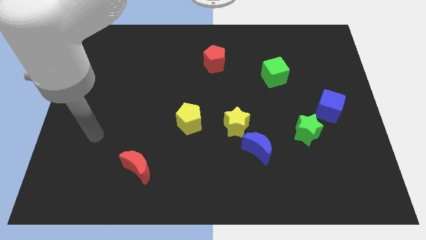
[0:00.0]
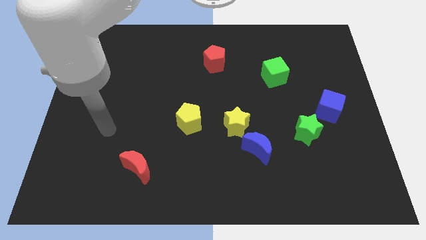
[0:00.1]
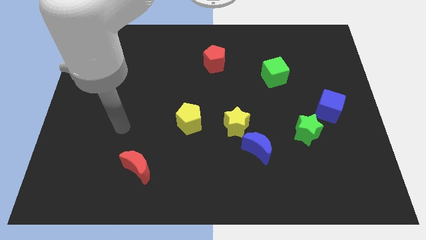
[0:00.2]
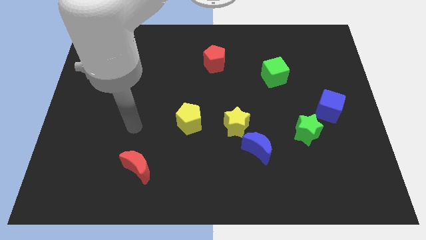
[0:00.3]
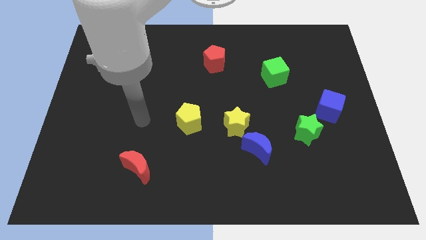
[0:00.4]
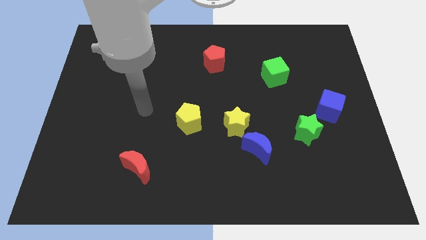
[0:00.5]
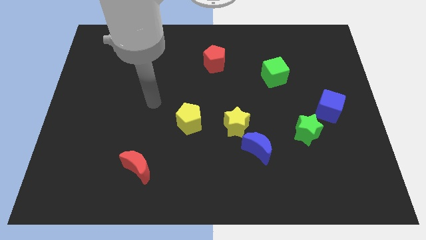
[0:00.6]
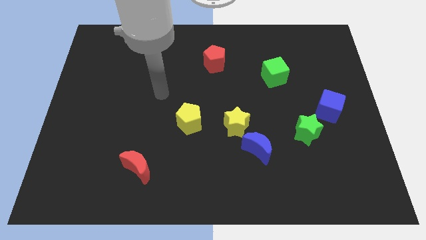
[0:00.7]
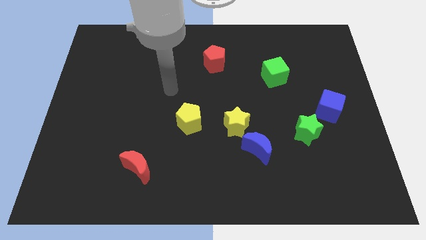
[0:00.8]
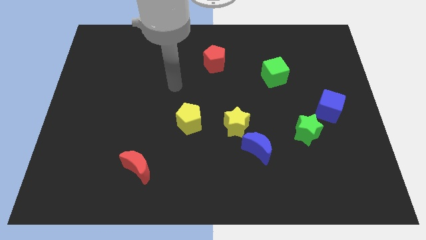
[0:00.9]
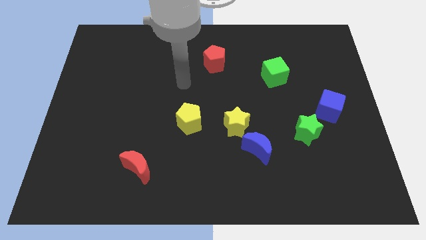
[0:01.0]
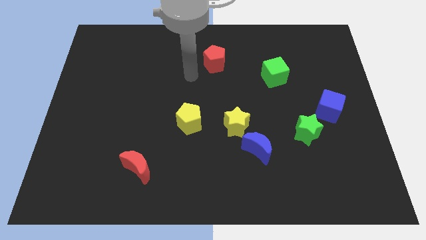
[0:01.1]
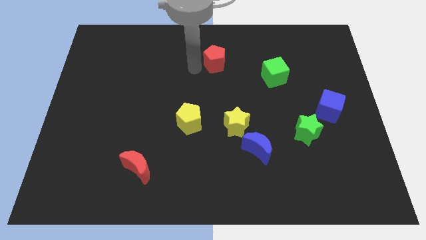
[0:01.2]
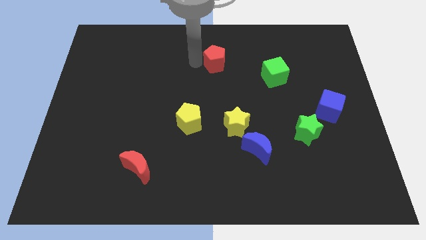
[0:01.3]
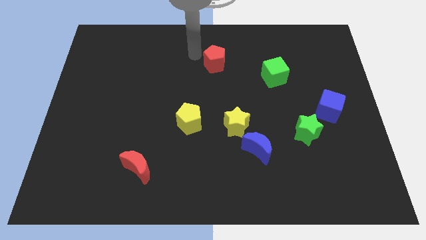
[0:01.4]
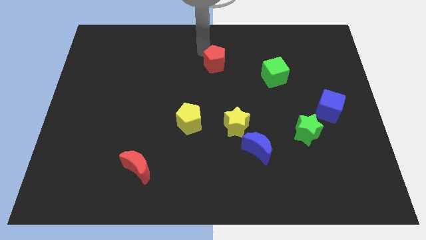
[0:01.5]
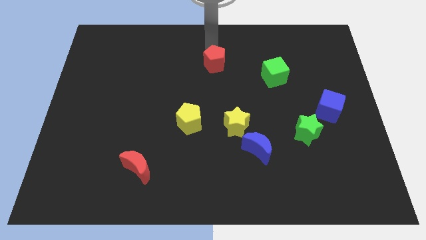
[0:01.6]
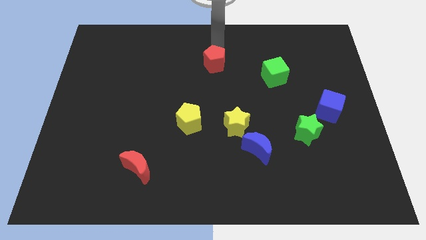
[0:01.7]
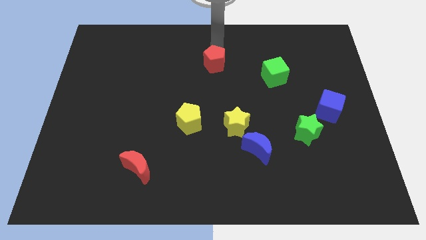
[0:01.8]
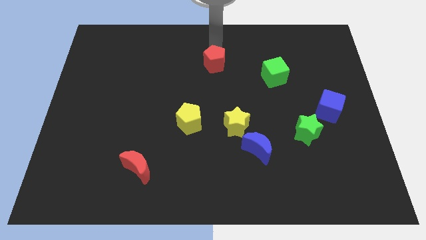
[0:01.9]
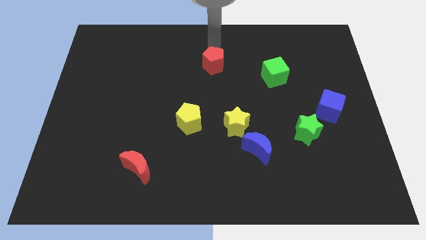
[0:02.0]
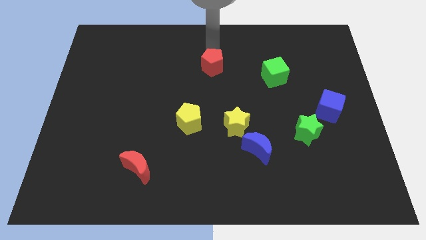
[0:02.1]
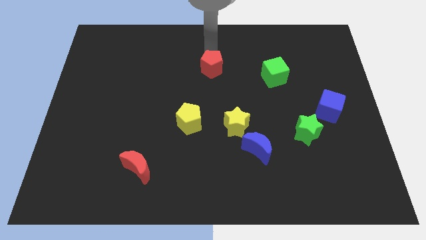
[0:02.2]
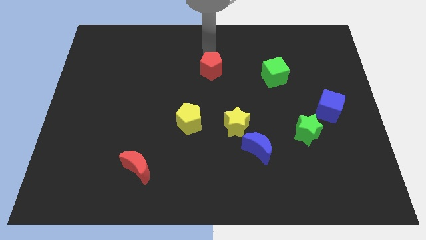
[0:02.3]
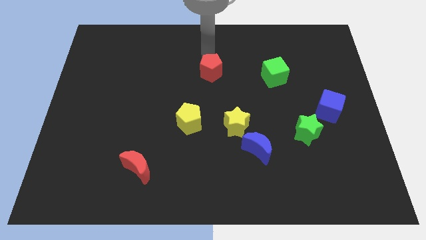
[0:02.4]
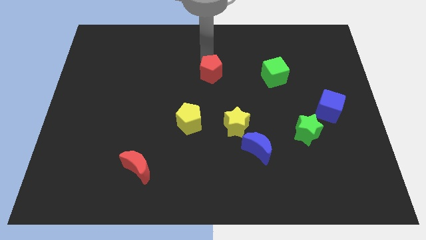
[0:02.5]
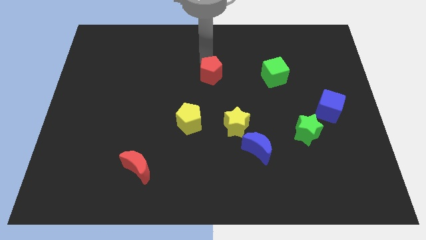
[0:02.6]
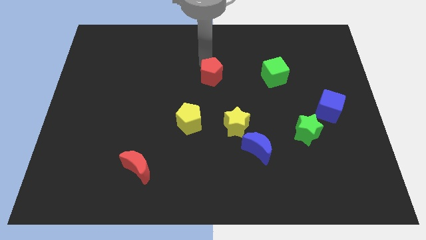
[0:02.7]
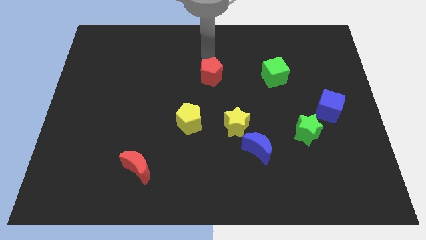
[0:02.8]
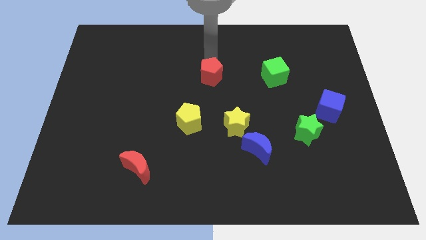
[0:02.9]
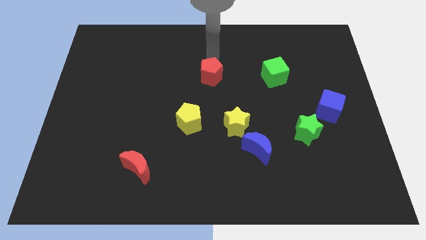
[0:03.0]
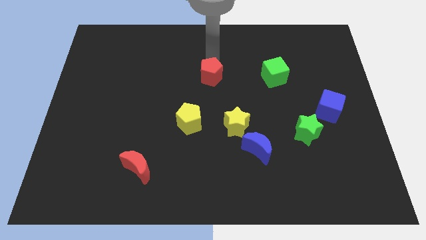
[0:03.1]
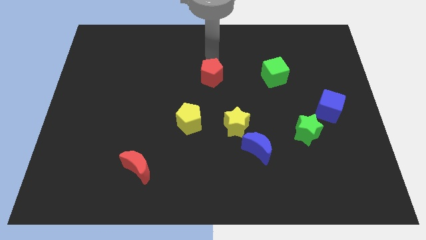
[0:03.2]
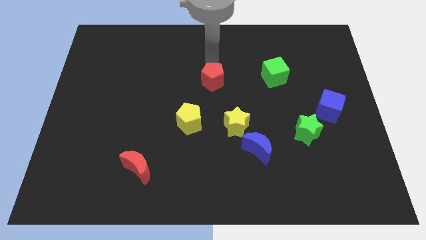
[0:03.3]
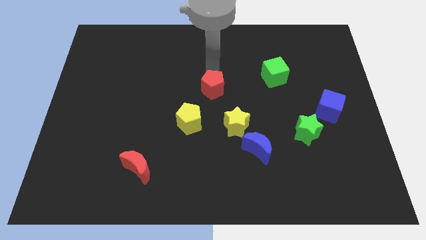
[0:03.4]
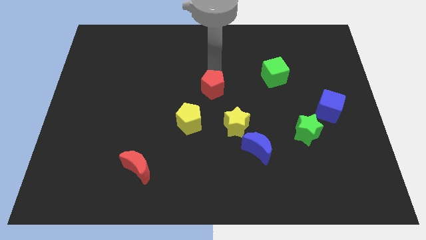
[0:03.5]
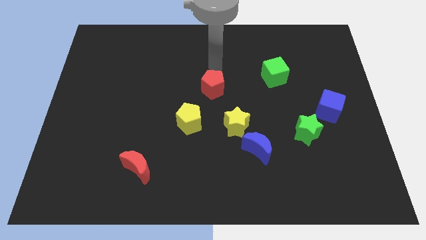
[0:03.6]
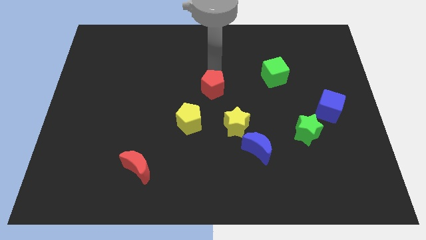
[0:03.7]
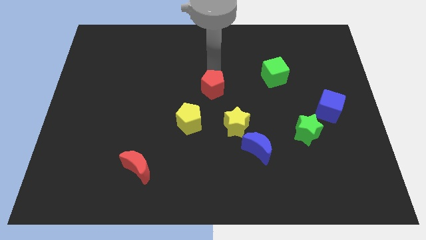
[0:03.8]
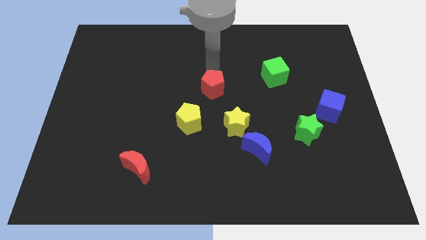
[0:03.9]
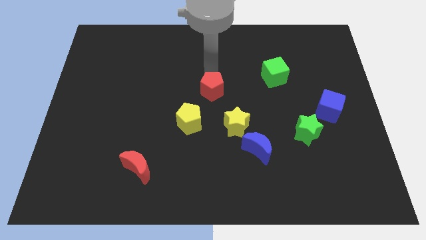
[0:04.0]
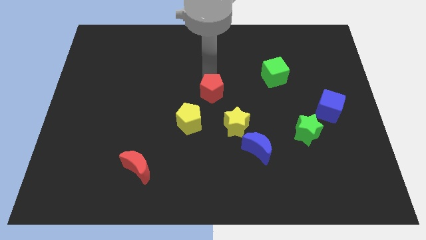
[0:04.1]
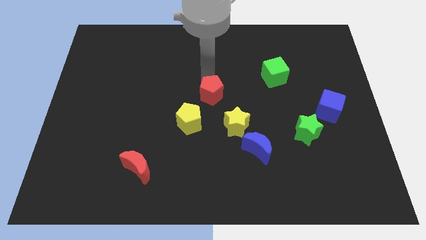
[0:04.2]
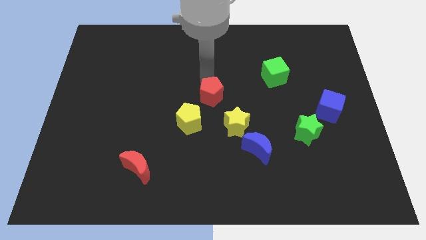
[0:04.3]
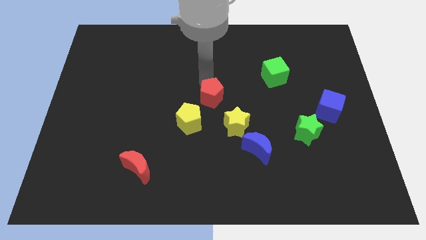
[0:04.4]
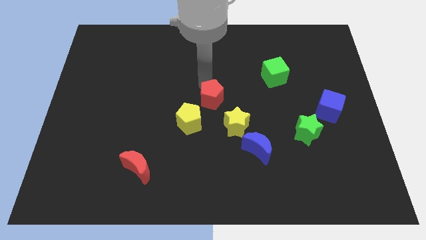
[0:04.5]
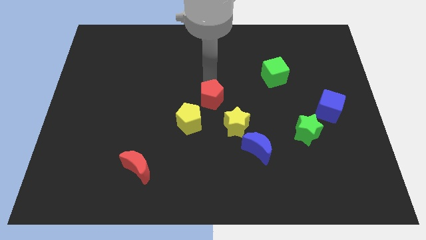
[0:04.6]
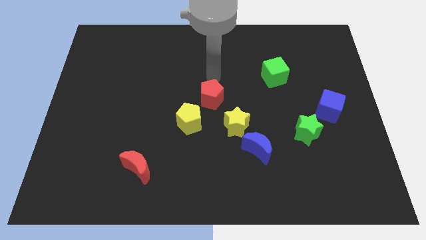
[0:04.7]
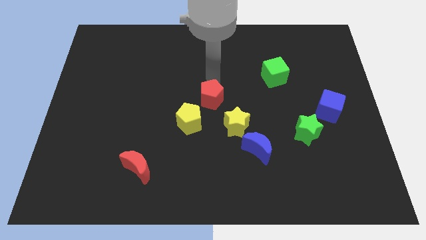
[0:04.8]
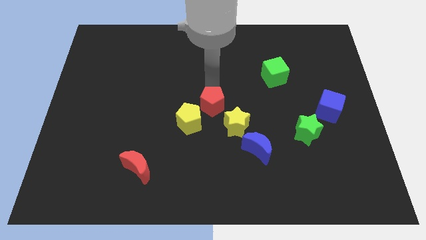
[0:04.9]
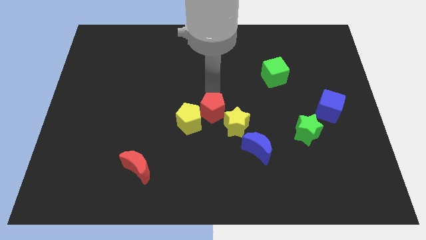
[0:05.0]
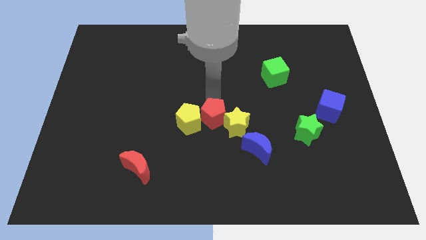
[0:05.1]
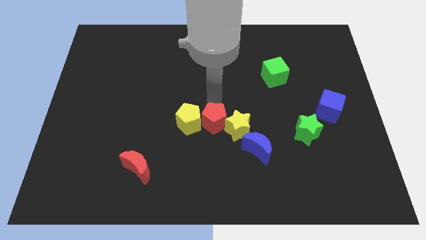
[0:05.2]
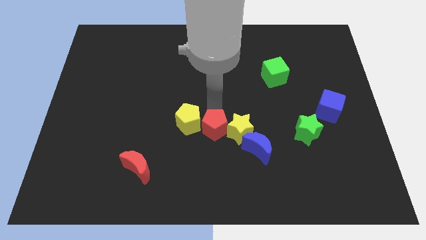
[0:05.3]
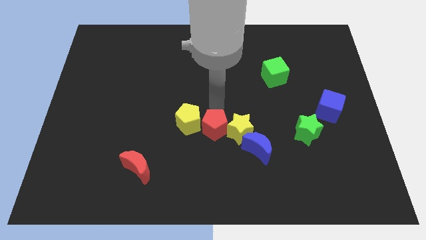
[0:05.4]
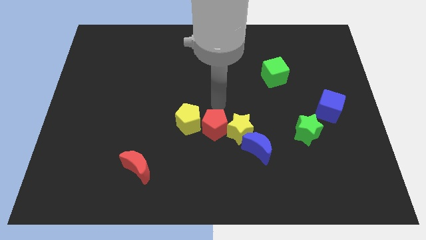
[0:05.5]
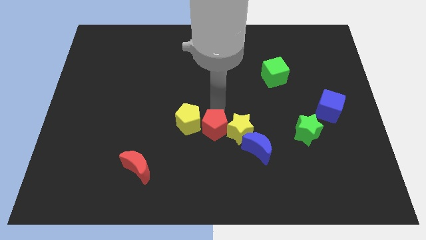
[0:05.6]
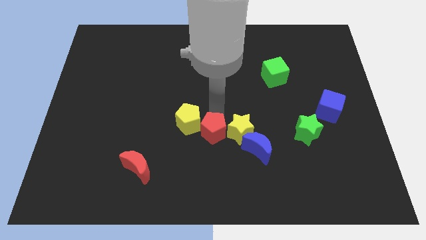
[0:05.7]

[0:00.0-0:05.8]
put the red pentagon to the left of the blue moon

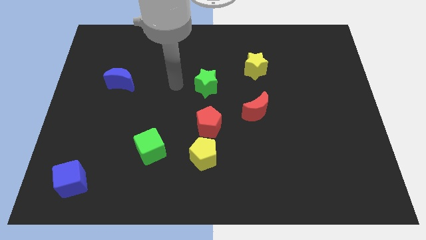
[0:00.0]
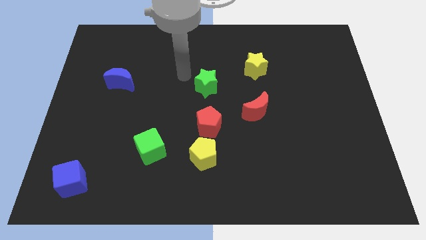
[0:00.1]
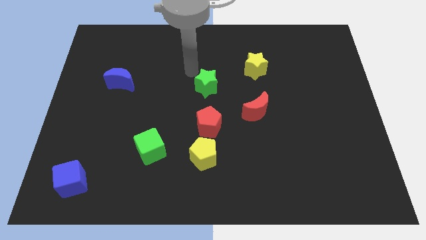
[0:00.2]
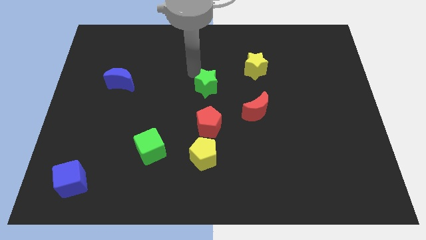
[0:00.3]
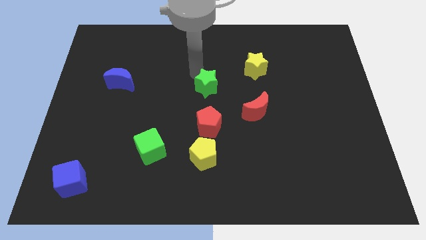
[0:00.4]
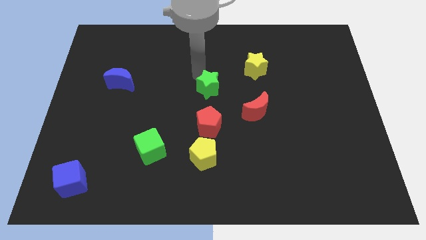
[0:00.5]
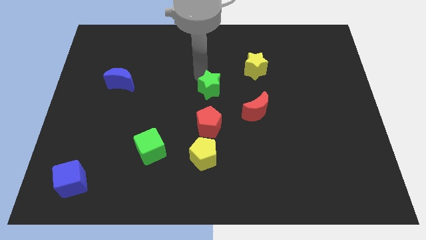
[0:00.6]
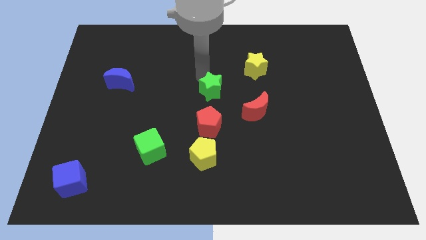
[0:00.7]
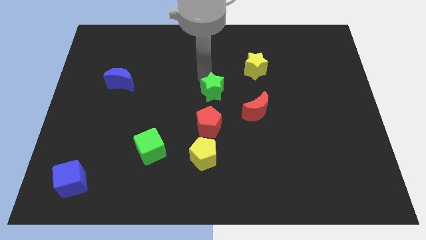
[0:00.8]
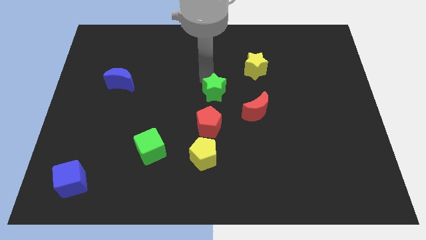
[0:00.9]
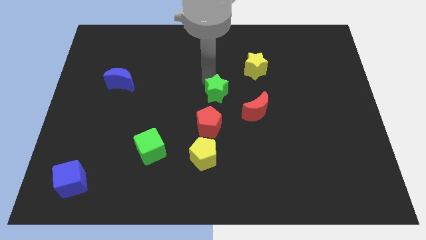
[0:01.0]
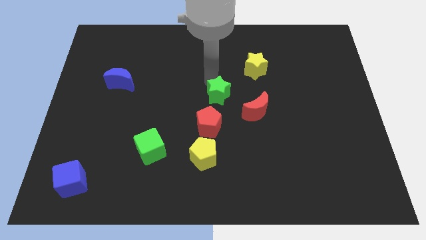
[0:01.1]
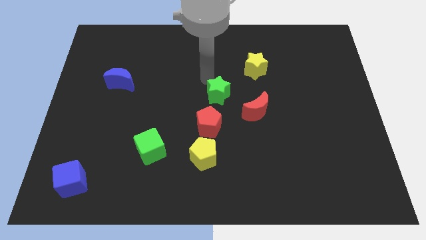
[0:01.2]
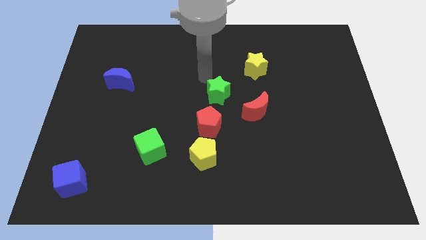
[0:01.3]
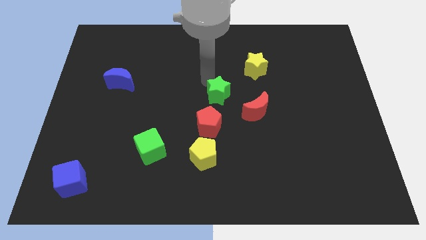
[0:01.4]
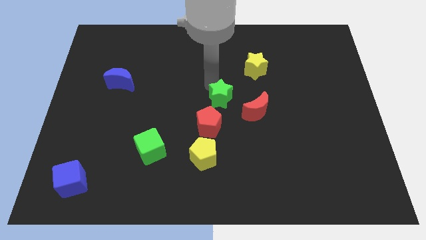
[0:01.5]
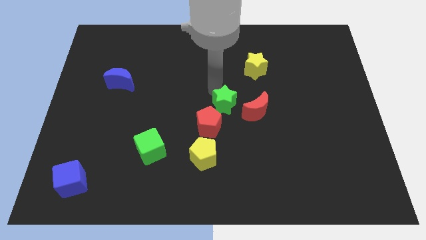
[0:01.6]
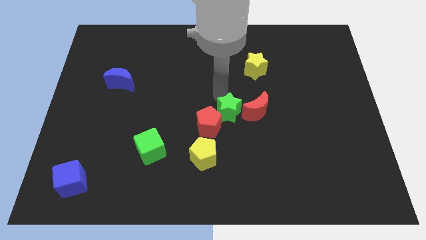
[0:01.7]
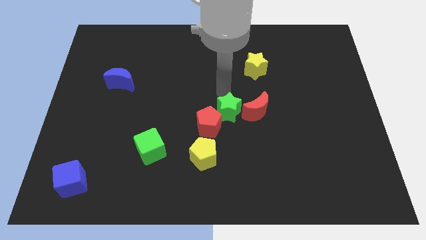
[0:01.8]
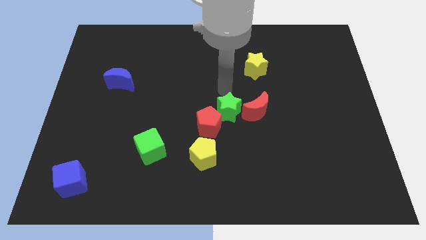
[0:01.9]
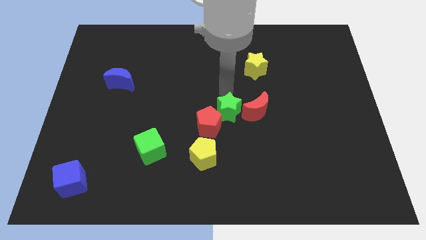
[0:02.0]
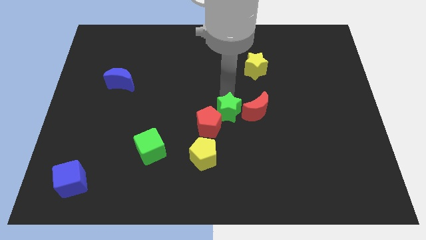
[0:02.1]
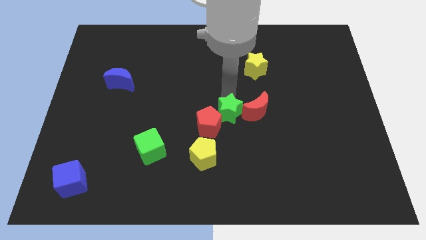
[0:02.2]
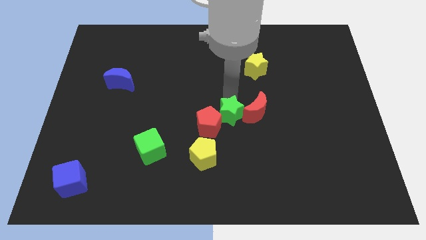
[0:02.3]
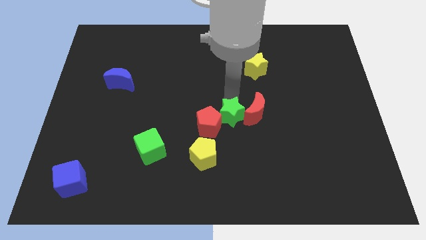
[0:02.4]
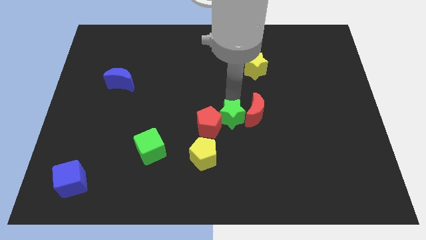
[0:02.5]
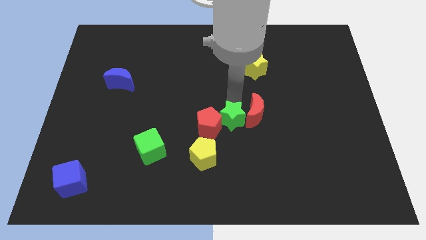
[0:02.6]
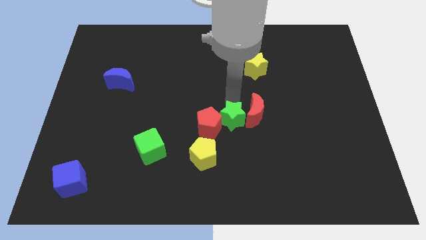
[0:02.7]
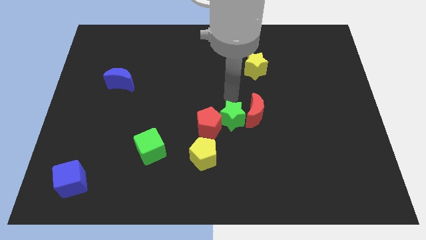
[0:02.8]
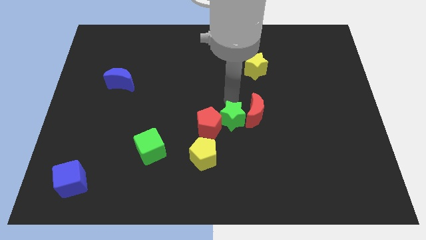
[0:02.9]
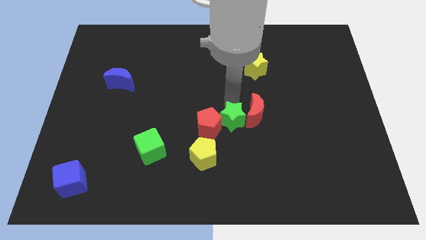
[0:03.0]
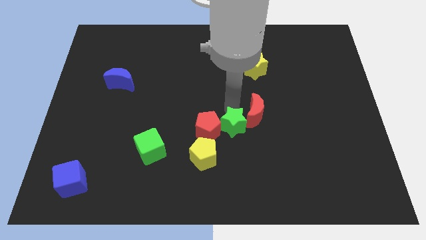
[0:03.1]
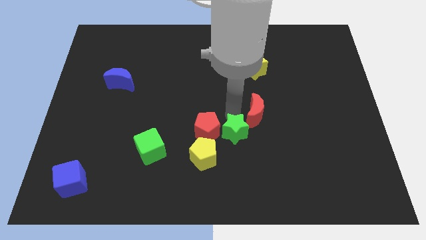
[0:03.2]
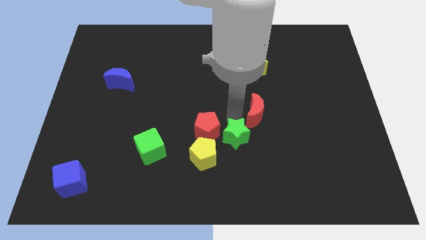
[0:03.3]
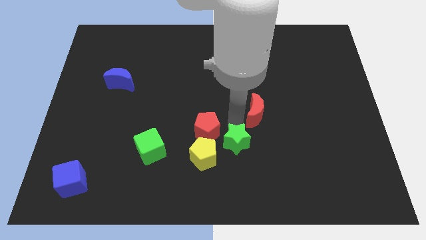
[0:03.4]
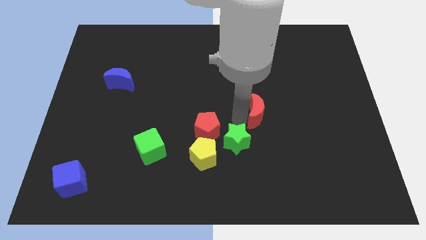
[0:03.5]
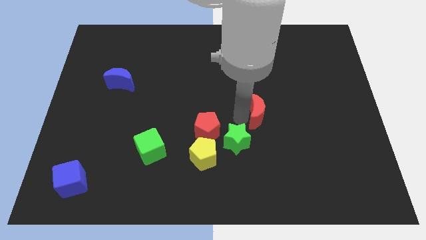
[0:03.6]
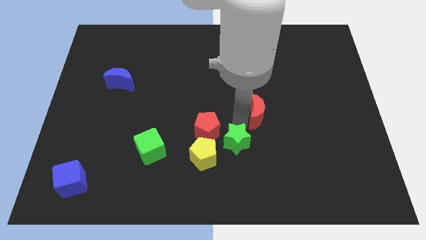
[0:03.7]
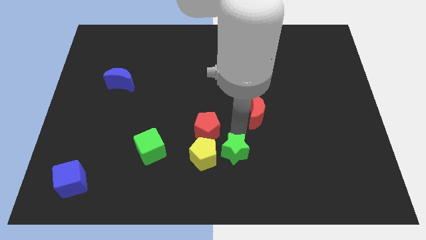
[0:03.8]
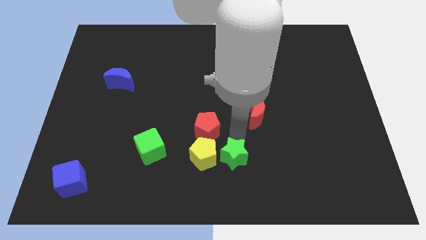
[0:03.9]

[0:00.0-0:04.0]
slide the green star diagonally down and to the right of the yellow pentagon
